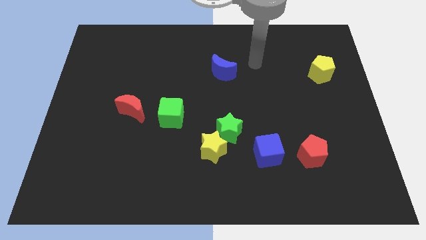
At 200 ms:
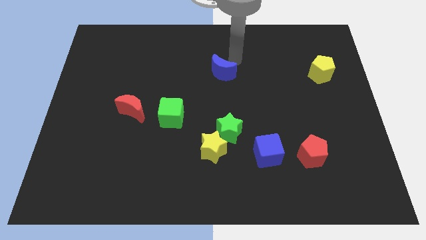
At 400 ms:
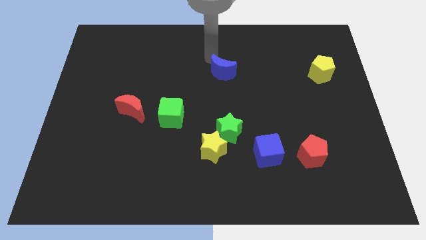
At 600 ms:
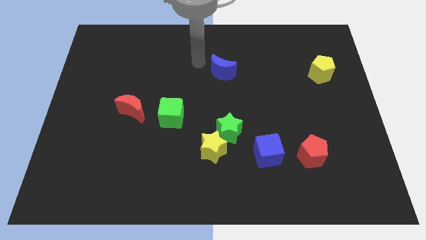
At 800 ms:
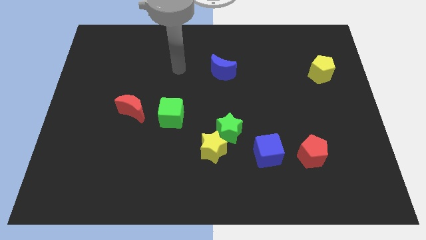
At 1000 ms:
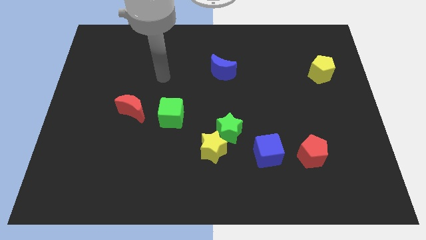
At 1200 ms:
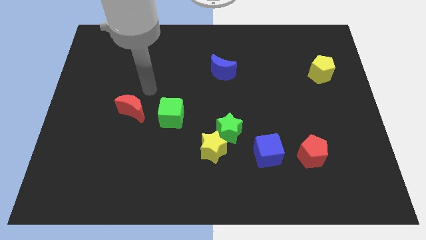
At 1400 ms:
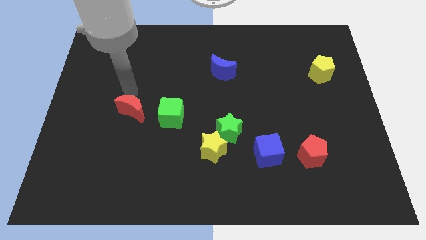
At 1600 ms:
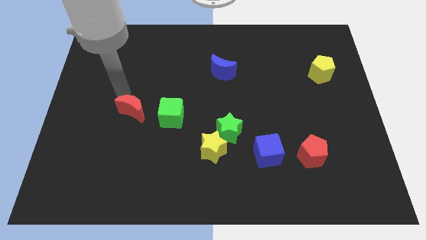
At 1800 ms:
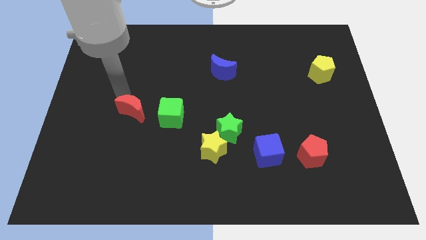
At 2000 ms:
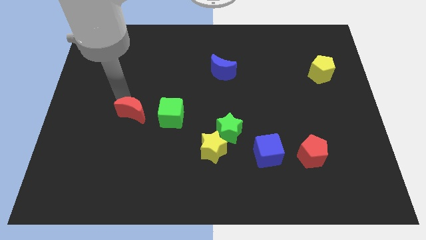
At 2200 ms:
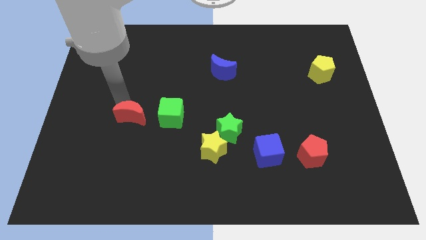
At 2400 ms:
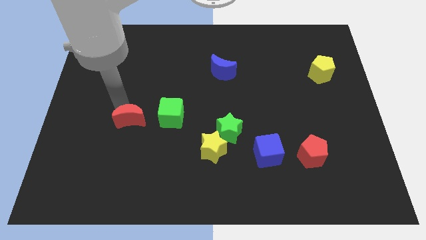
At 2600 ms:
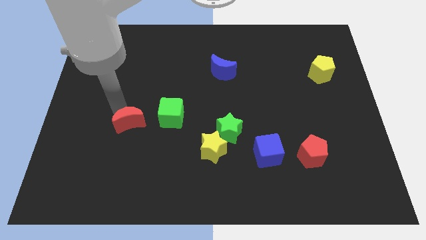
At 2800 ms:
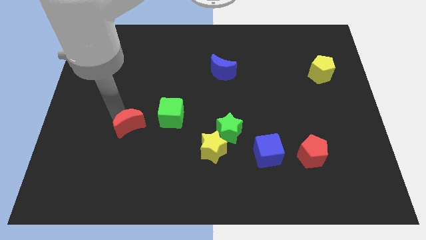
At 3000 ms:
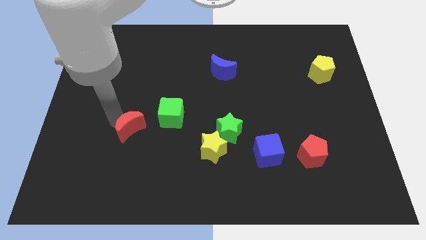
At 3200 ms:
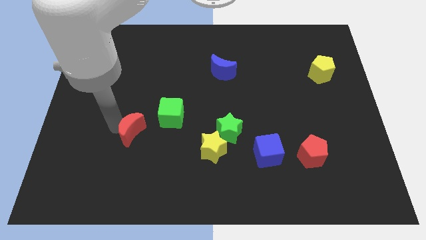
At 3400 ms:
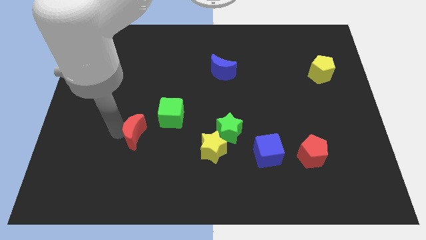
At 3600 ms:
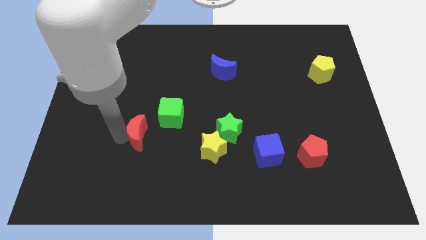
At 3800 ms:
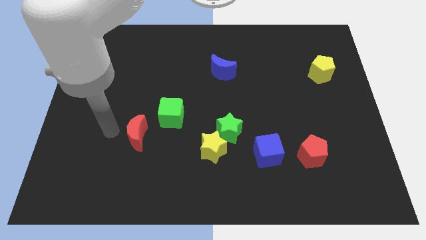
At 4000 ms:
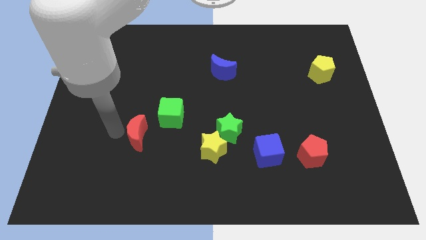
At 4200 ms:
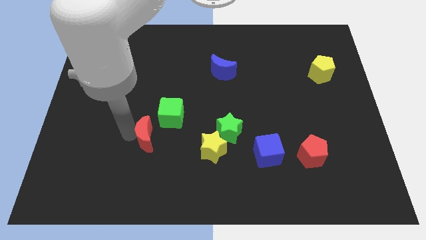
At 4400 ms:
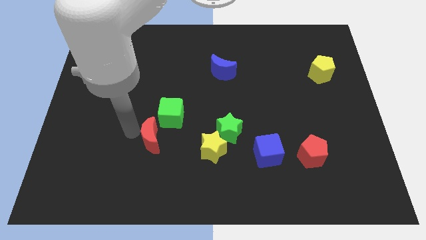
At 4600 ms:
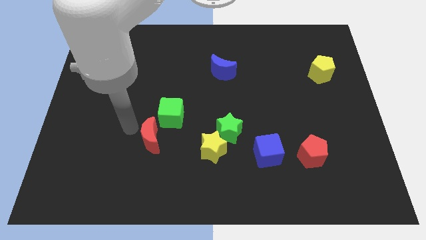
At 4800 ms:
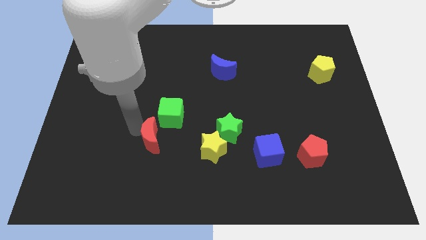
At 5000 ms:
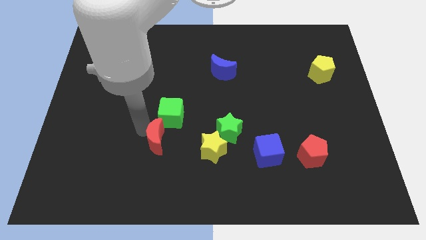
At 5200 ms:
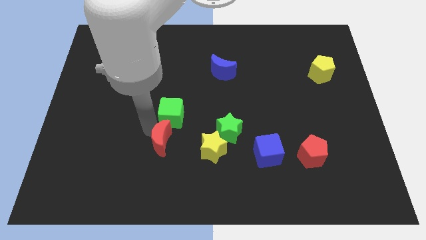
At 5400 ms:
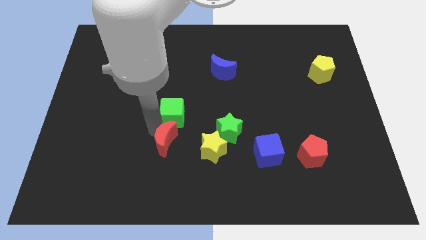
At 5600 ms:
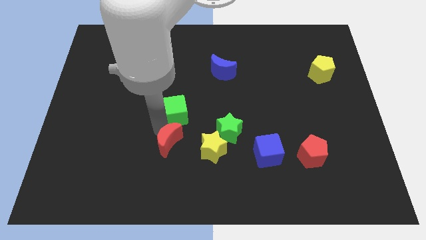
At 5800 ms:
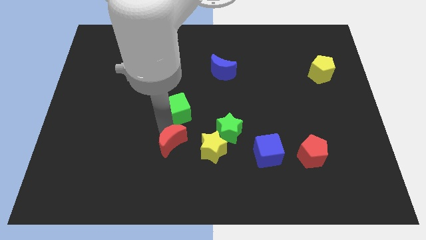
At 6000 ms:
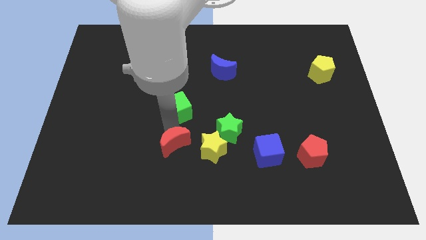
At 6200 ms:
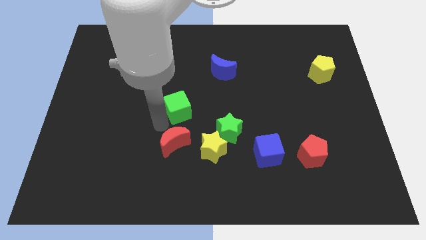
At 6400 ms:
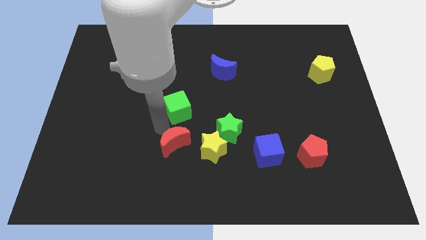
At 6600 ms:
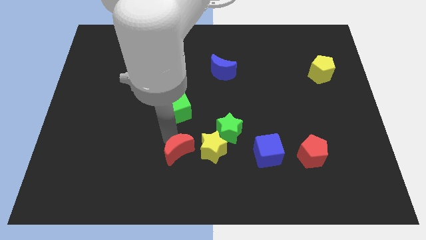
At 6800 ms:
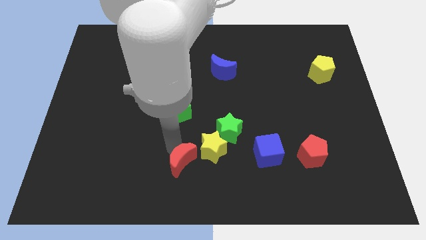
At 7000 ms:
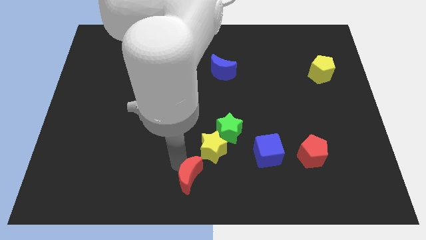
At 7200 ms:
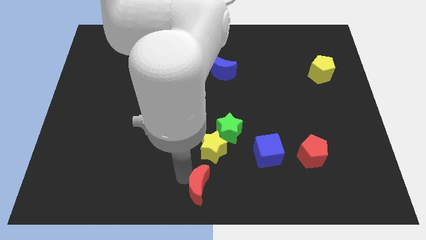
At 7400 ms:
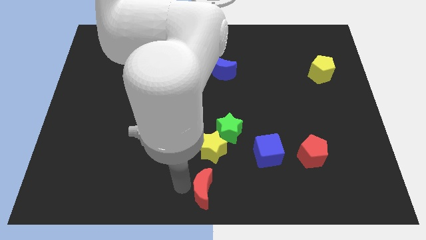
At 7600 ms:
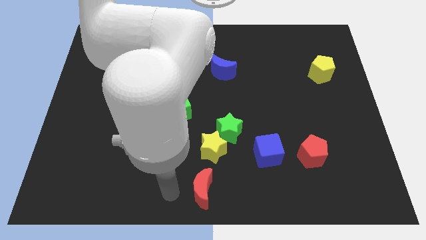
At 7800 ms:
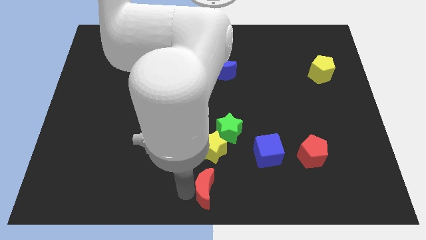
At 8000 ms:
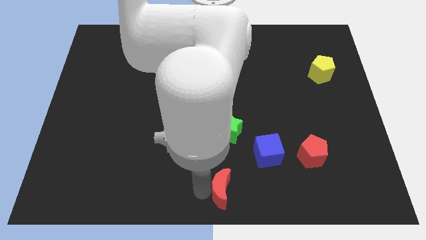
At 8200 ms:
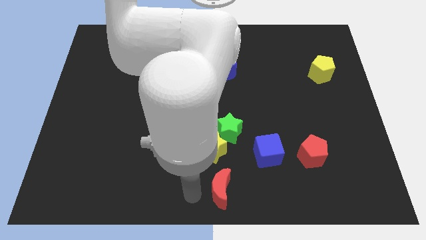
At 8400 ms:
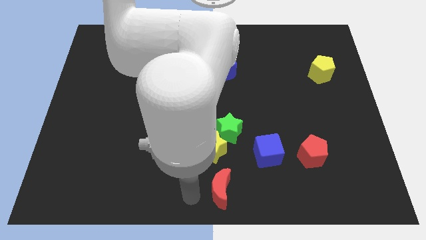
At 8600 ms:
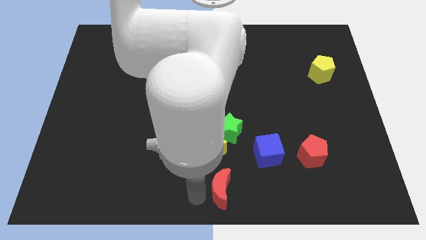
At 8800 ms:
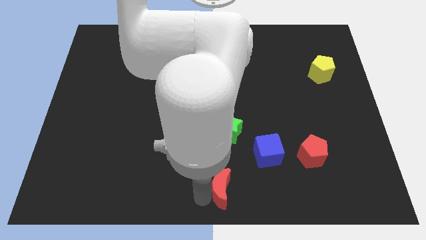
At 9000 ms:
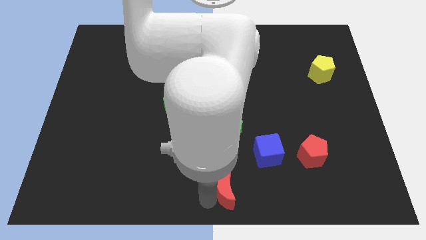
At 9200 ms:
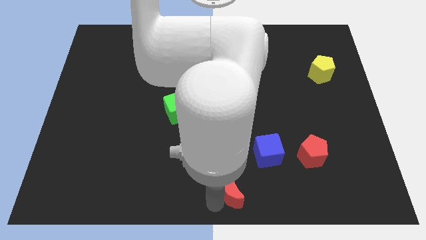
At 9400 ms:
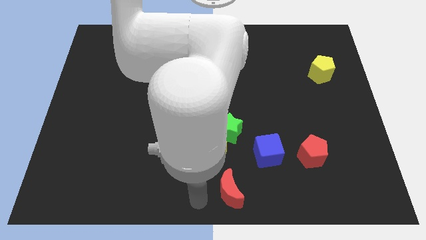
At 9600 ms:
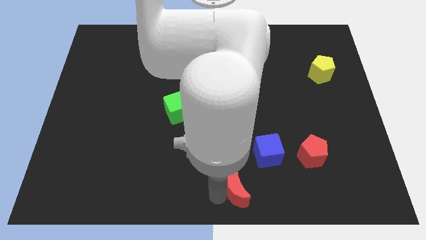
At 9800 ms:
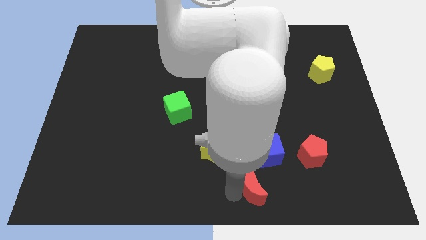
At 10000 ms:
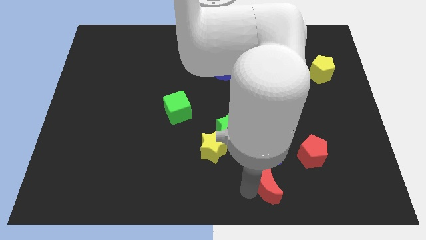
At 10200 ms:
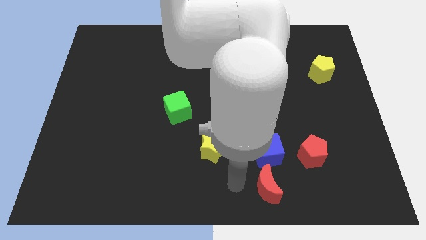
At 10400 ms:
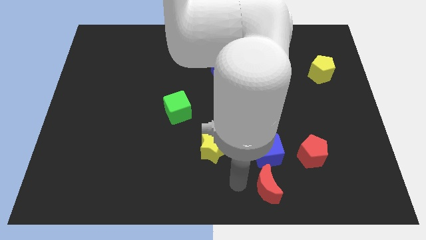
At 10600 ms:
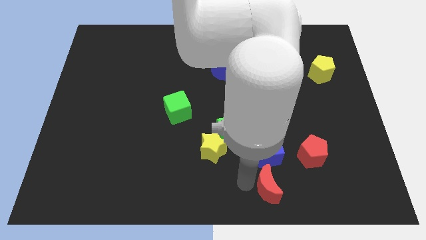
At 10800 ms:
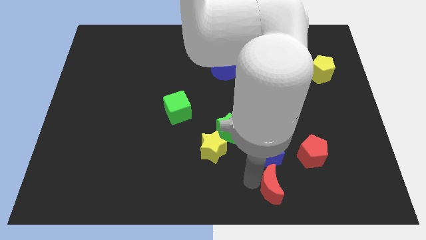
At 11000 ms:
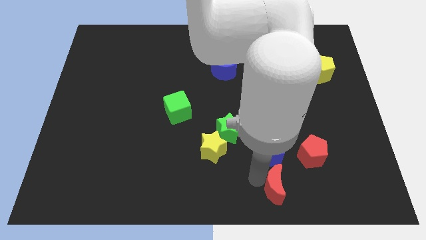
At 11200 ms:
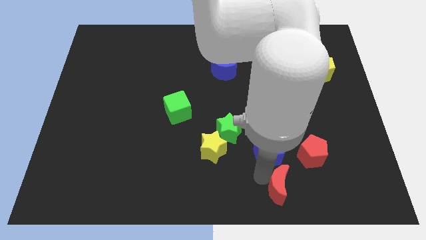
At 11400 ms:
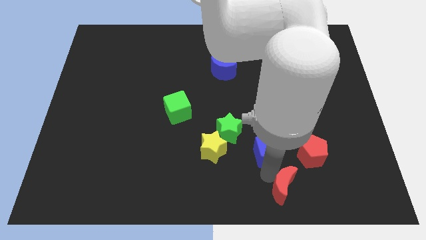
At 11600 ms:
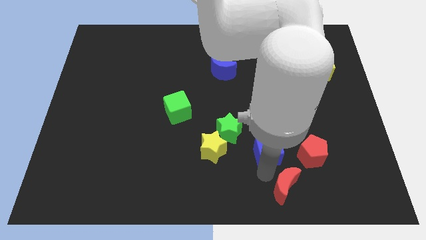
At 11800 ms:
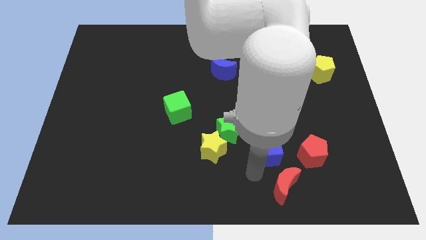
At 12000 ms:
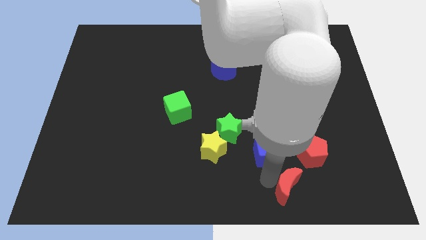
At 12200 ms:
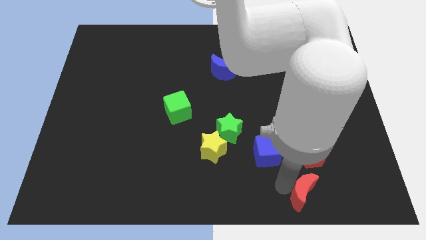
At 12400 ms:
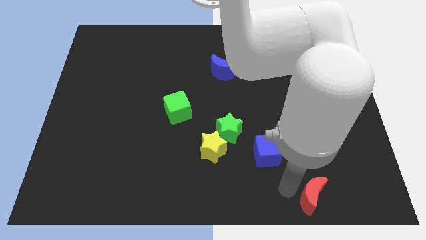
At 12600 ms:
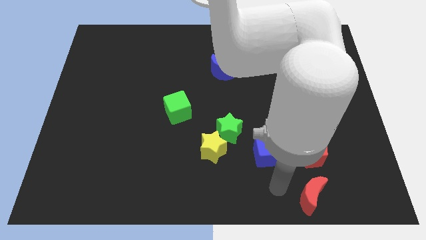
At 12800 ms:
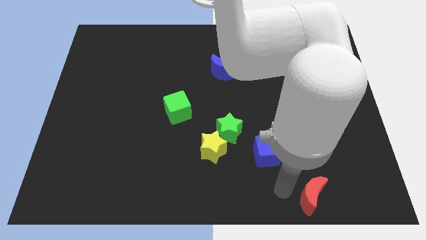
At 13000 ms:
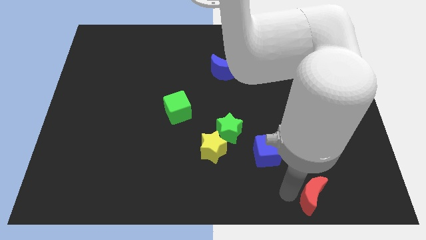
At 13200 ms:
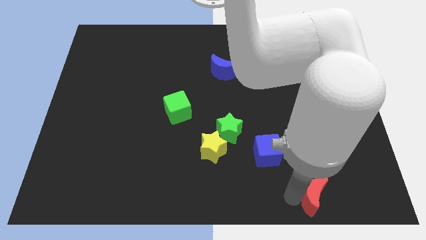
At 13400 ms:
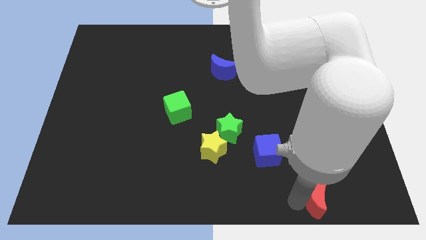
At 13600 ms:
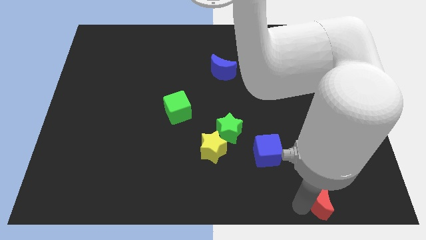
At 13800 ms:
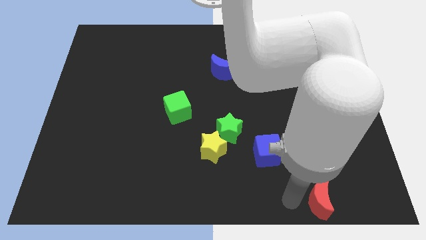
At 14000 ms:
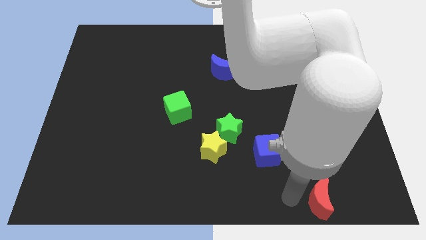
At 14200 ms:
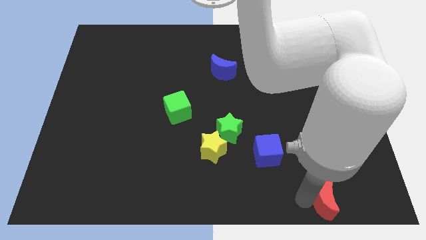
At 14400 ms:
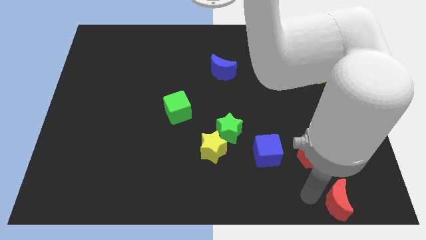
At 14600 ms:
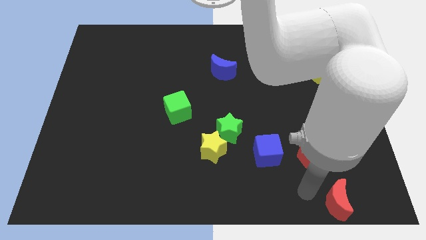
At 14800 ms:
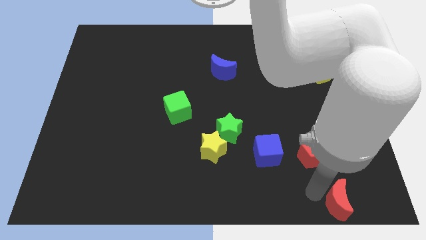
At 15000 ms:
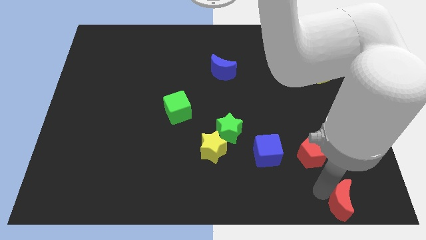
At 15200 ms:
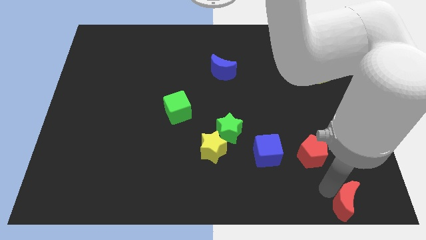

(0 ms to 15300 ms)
put the red moon to the bottom right corner
